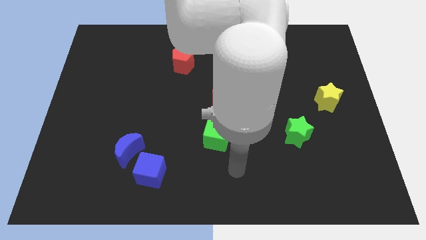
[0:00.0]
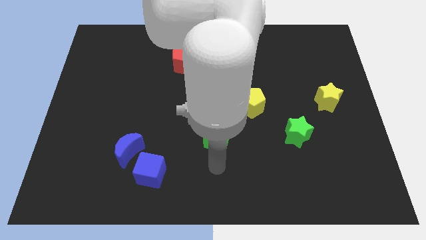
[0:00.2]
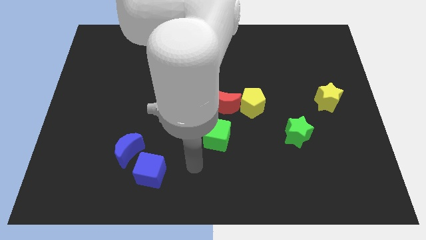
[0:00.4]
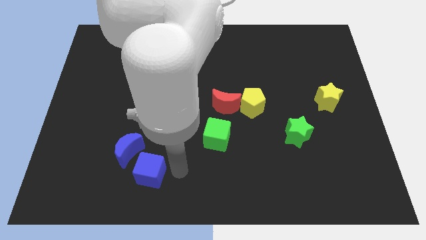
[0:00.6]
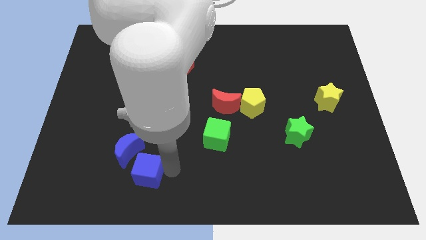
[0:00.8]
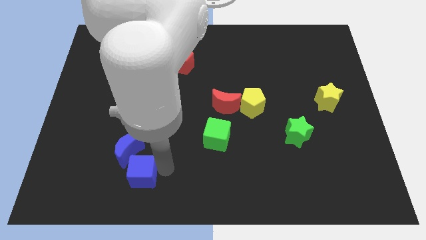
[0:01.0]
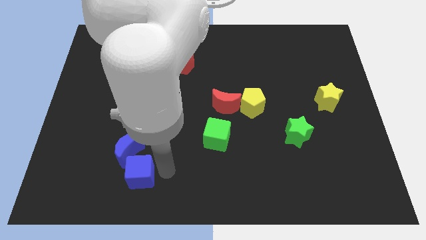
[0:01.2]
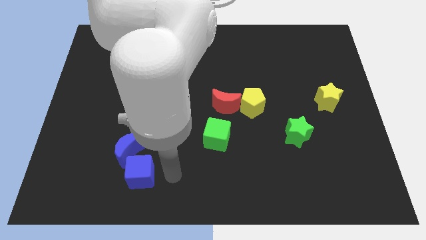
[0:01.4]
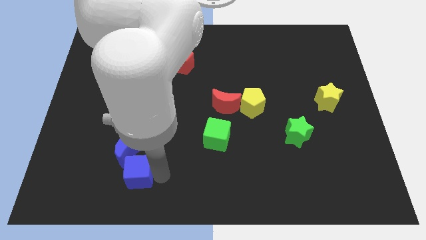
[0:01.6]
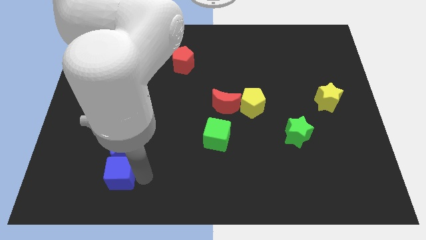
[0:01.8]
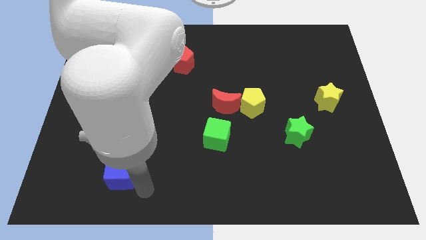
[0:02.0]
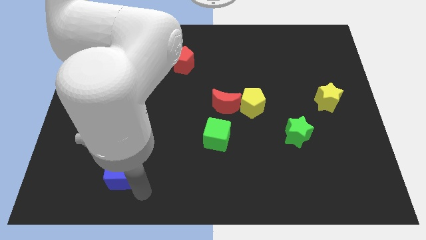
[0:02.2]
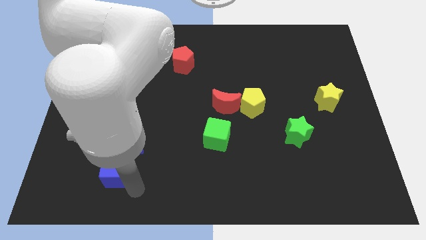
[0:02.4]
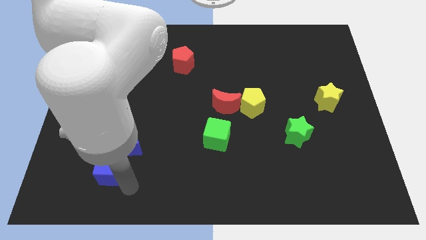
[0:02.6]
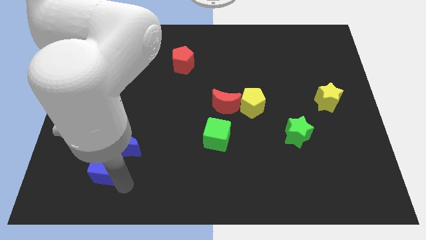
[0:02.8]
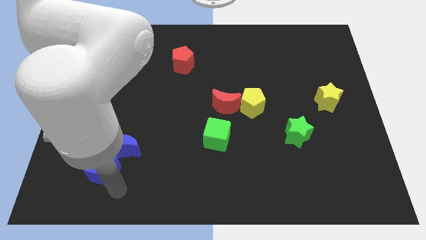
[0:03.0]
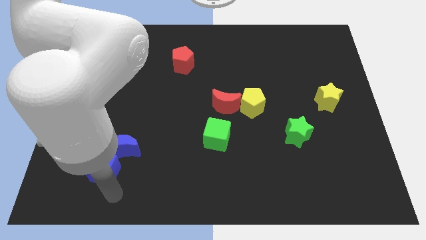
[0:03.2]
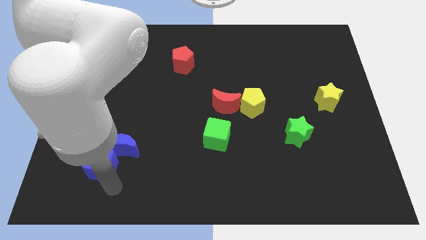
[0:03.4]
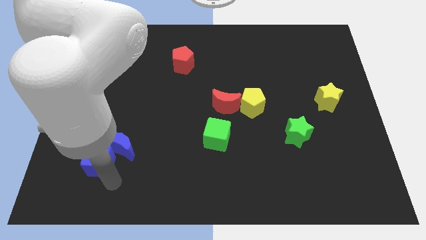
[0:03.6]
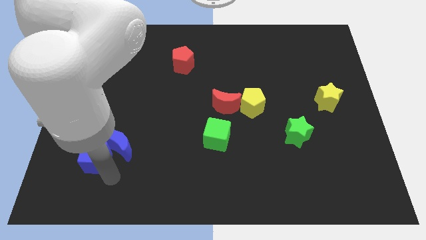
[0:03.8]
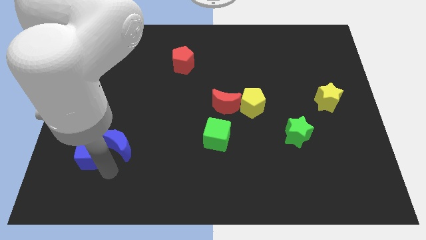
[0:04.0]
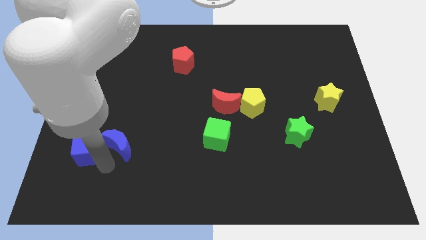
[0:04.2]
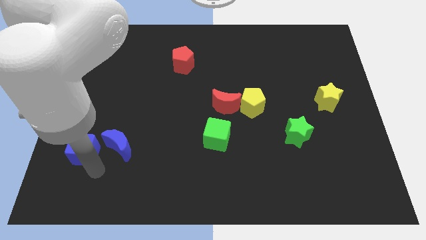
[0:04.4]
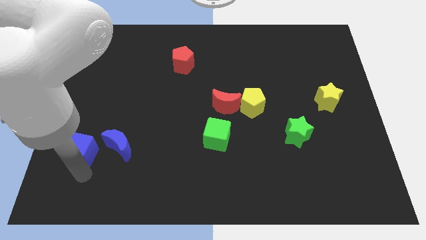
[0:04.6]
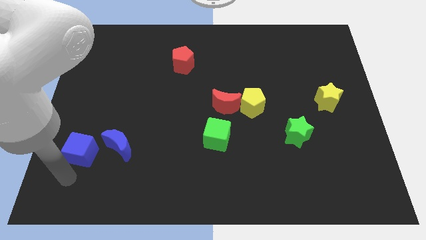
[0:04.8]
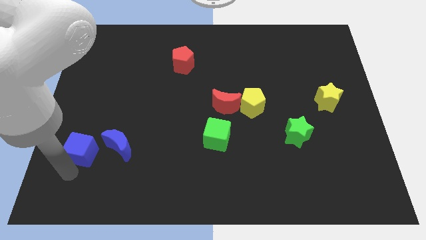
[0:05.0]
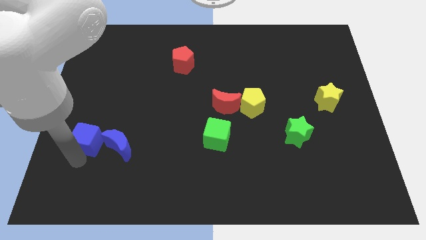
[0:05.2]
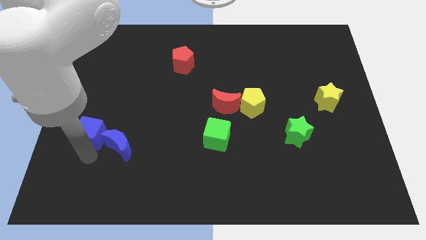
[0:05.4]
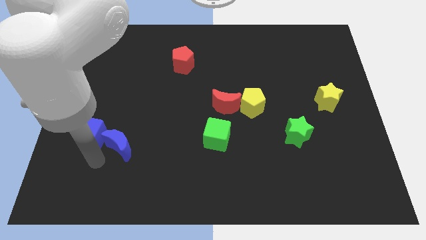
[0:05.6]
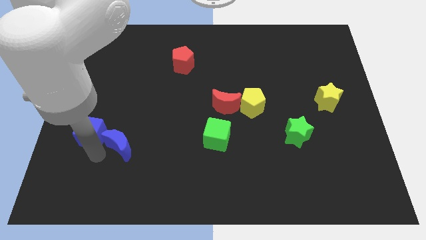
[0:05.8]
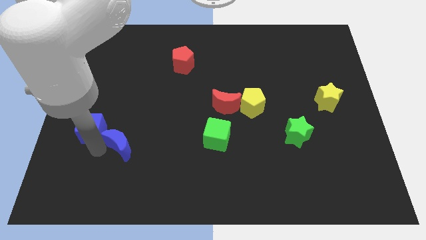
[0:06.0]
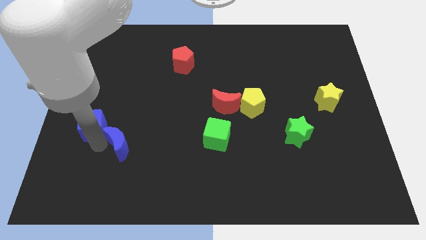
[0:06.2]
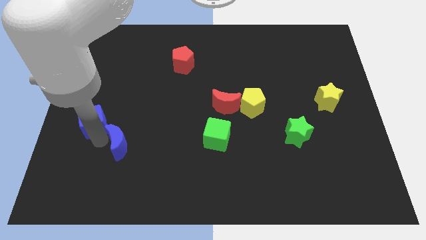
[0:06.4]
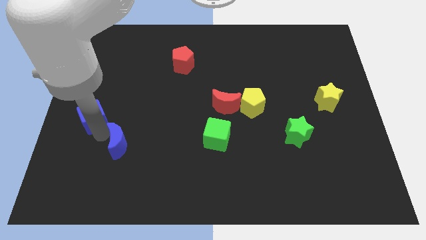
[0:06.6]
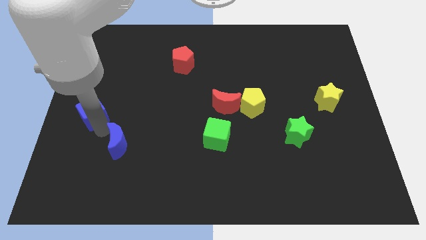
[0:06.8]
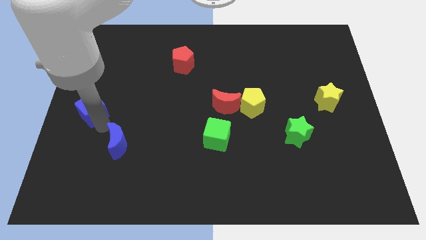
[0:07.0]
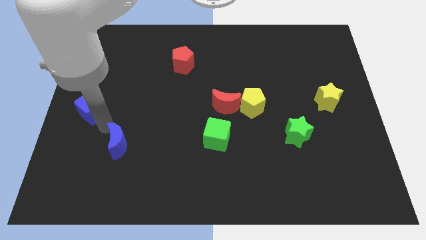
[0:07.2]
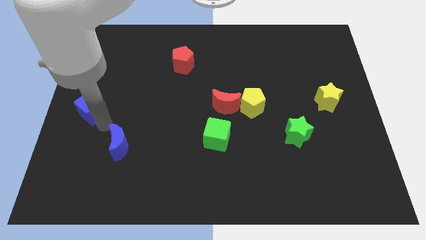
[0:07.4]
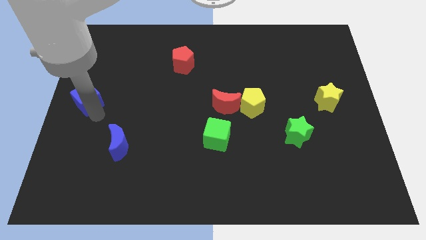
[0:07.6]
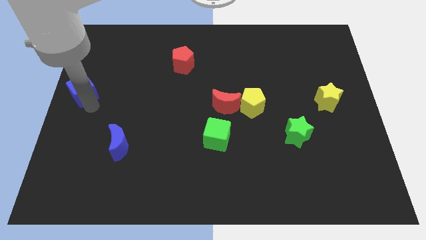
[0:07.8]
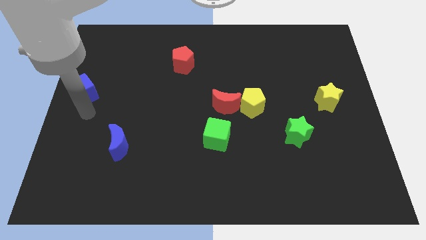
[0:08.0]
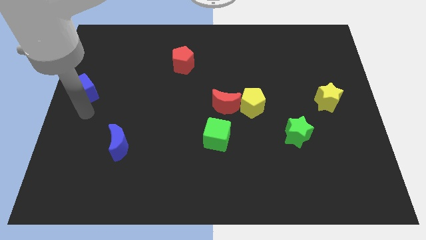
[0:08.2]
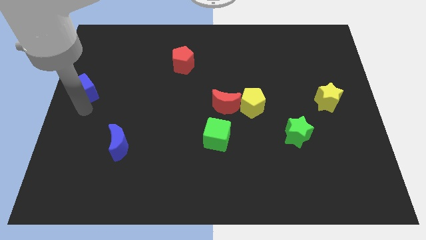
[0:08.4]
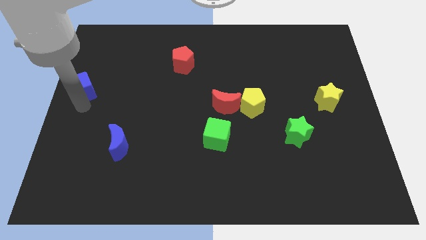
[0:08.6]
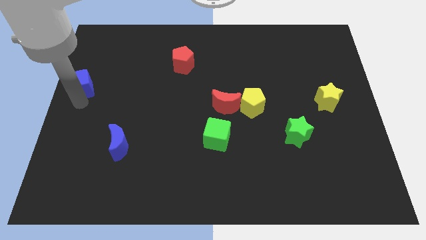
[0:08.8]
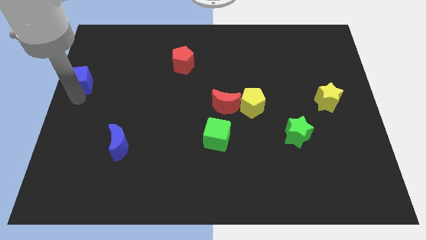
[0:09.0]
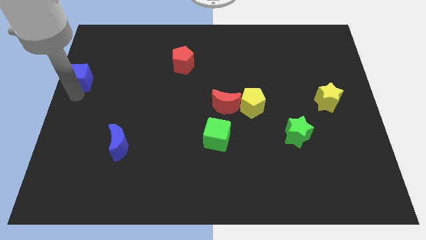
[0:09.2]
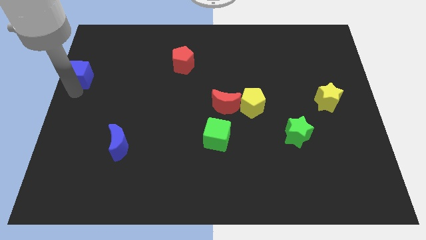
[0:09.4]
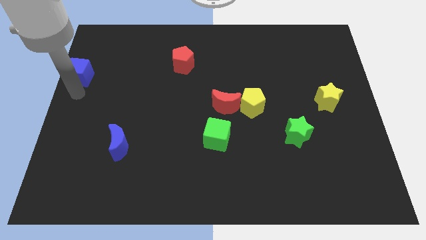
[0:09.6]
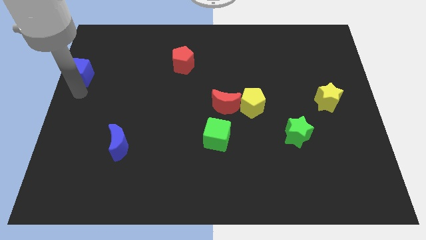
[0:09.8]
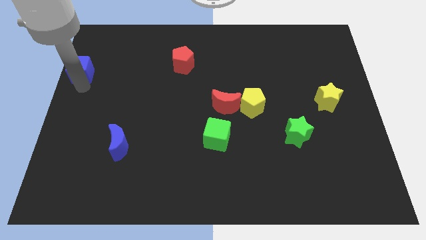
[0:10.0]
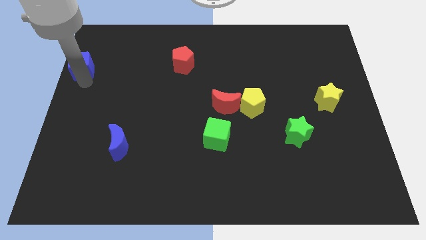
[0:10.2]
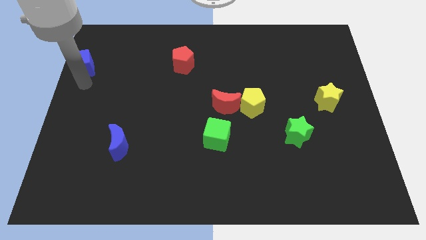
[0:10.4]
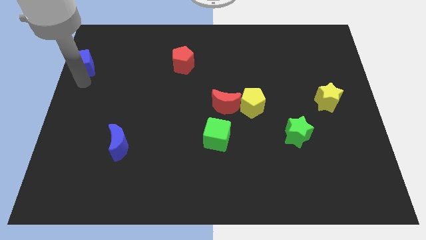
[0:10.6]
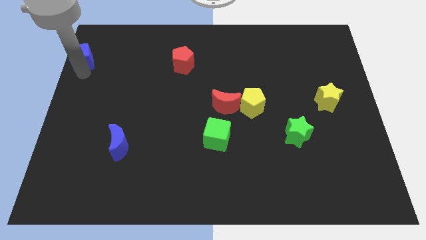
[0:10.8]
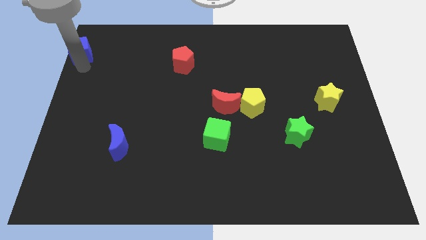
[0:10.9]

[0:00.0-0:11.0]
put the blue cube to the top left corner
